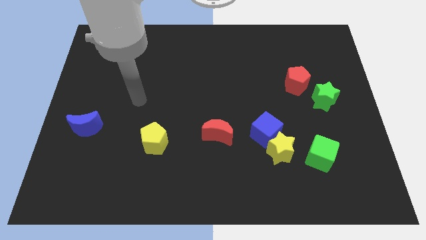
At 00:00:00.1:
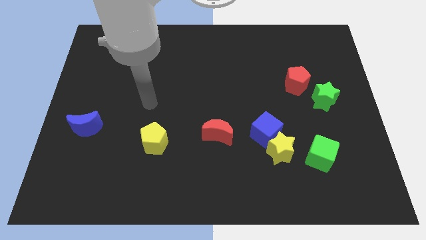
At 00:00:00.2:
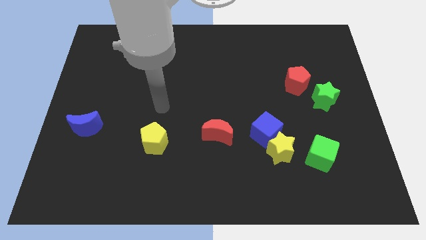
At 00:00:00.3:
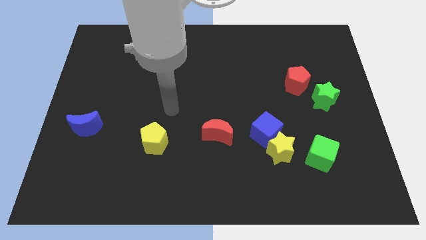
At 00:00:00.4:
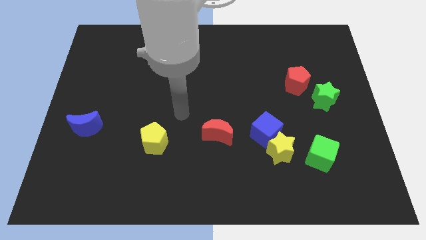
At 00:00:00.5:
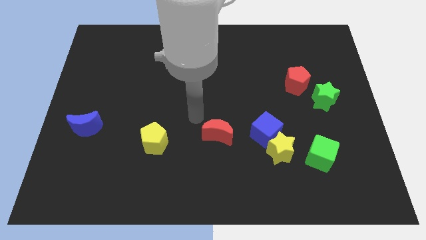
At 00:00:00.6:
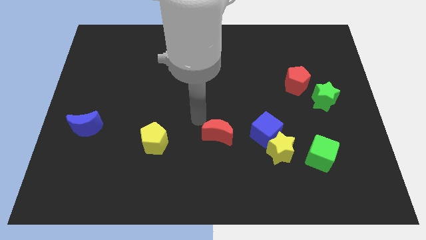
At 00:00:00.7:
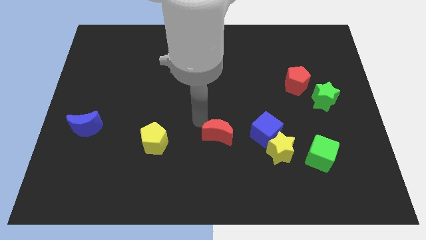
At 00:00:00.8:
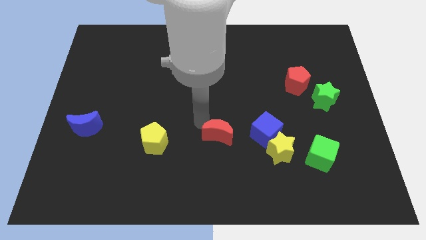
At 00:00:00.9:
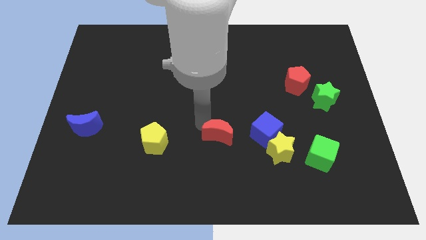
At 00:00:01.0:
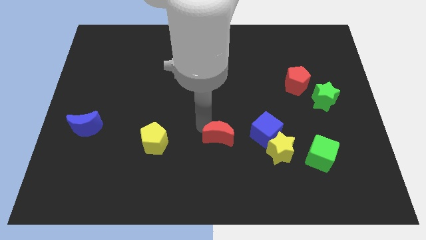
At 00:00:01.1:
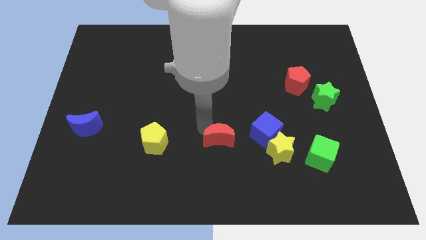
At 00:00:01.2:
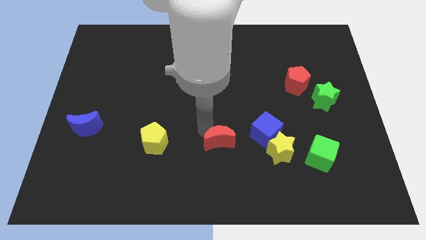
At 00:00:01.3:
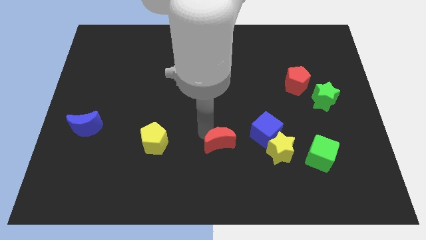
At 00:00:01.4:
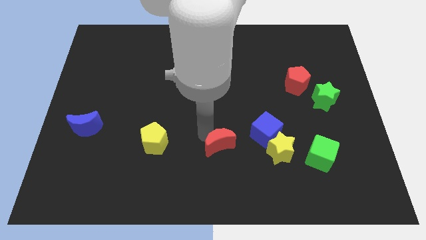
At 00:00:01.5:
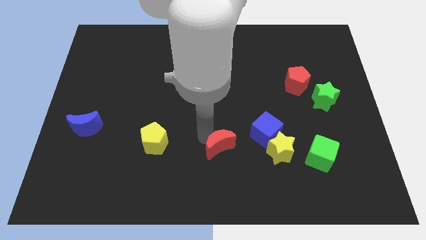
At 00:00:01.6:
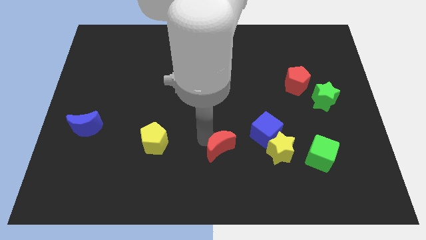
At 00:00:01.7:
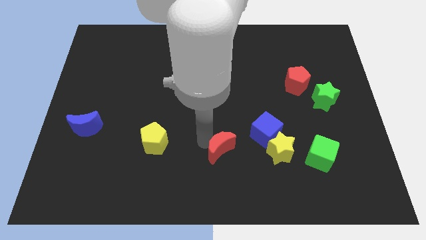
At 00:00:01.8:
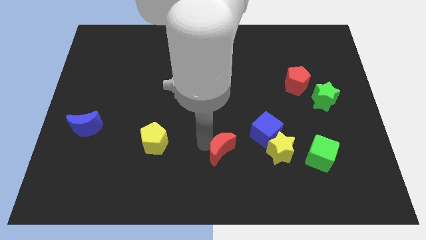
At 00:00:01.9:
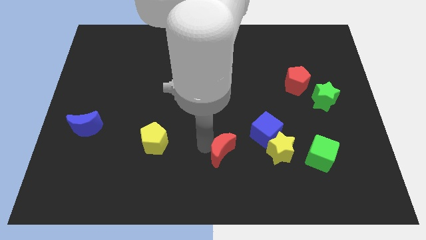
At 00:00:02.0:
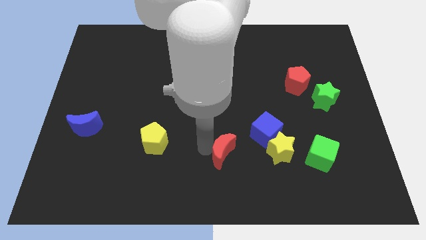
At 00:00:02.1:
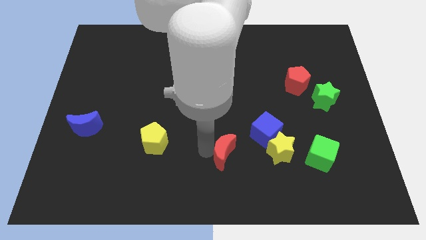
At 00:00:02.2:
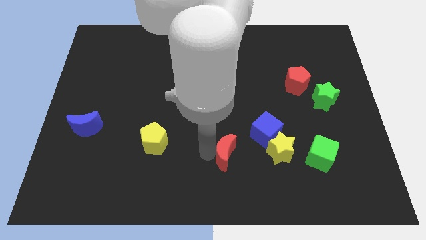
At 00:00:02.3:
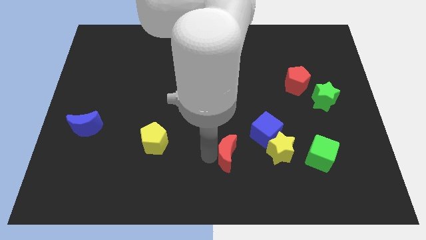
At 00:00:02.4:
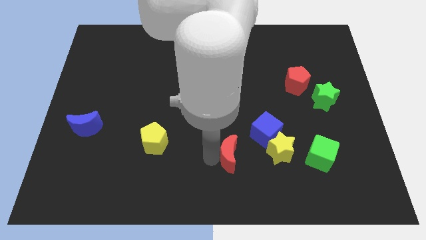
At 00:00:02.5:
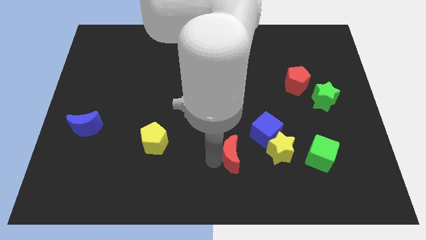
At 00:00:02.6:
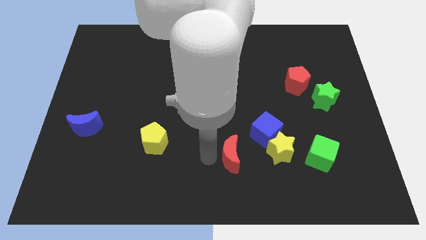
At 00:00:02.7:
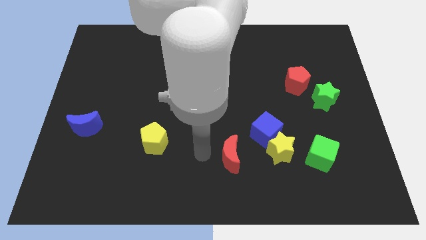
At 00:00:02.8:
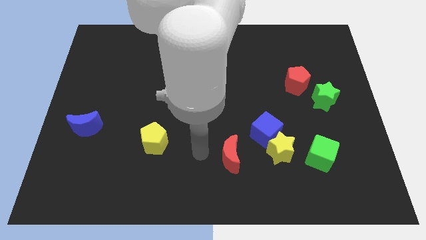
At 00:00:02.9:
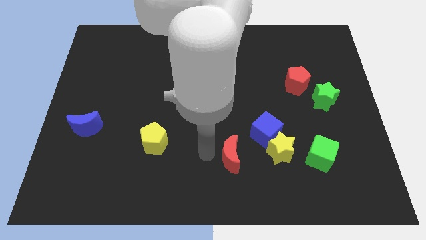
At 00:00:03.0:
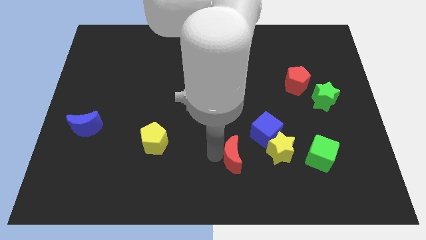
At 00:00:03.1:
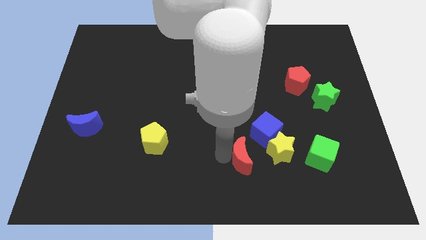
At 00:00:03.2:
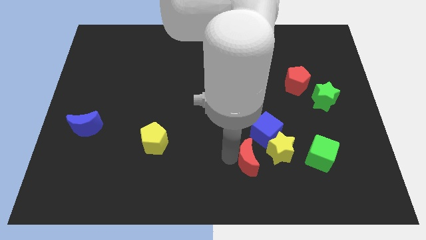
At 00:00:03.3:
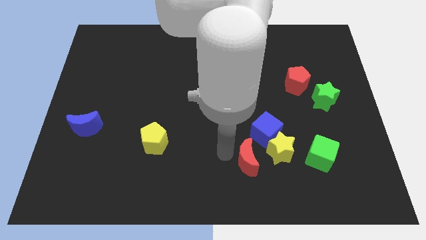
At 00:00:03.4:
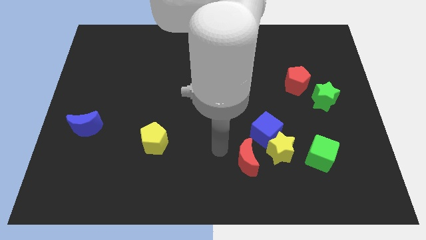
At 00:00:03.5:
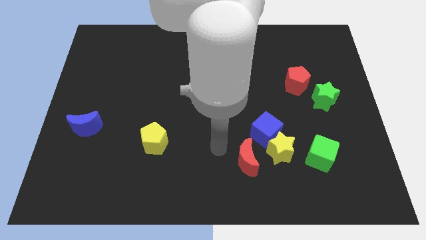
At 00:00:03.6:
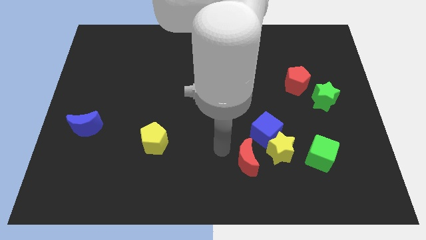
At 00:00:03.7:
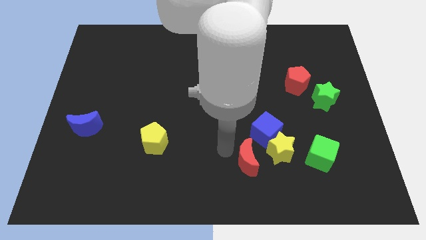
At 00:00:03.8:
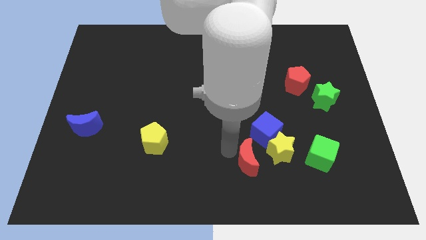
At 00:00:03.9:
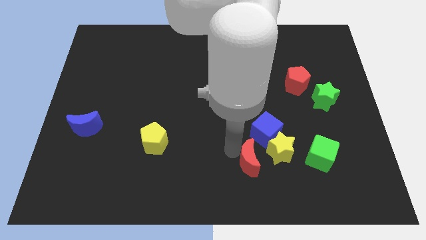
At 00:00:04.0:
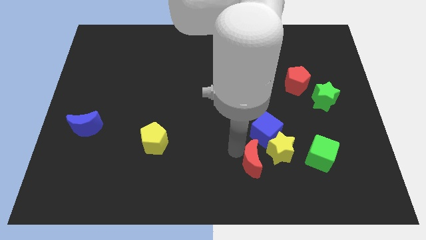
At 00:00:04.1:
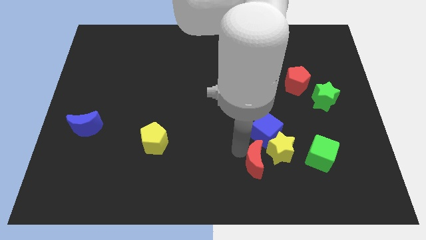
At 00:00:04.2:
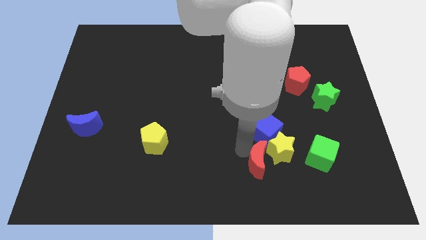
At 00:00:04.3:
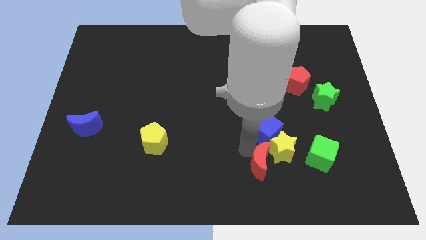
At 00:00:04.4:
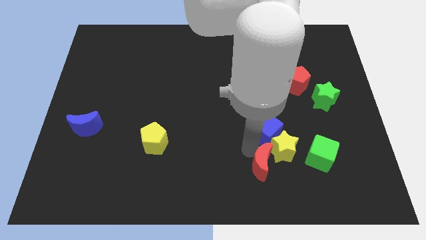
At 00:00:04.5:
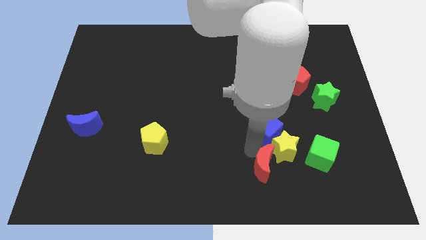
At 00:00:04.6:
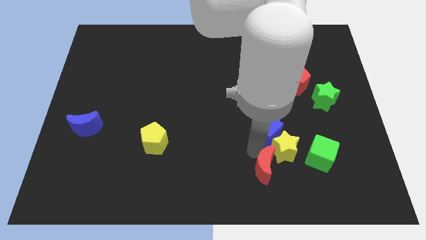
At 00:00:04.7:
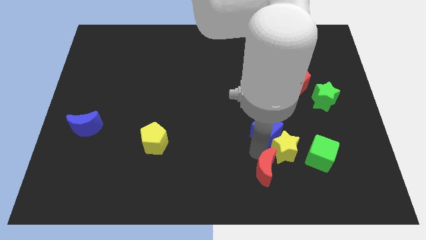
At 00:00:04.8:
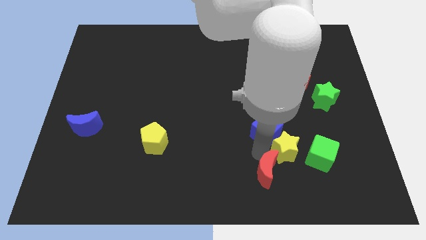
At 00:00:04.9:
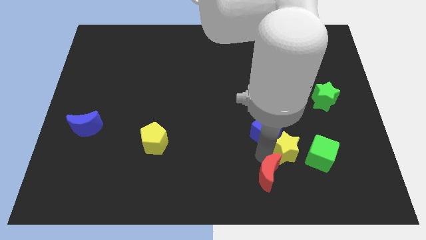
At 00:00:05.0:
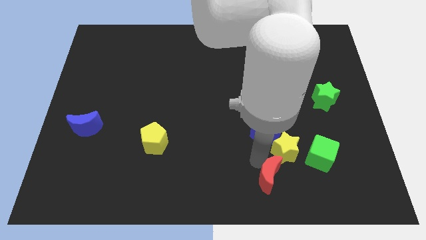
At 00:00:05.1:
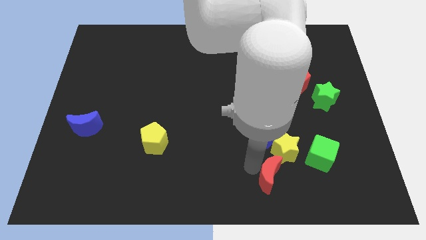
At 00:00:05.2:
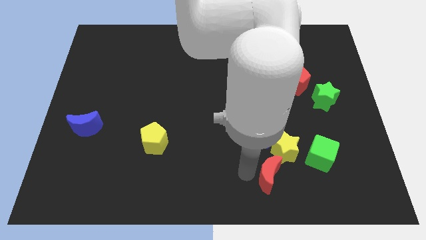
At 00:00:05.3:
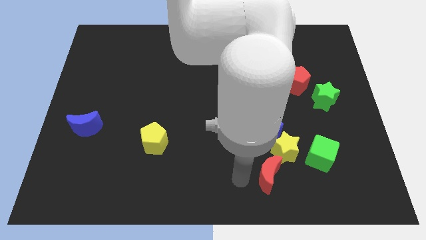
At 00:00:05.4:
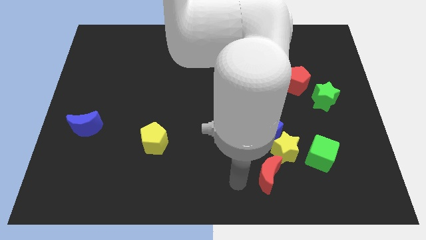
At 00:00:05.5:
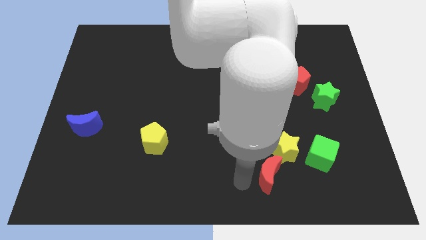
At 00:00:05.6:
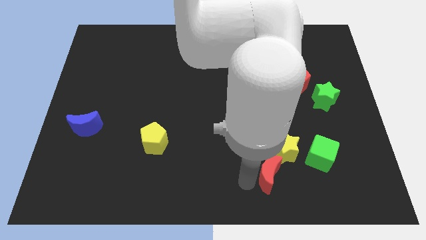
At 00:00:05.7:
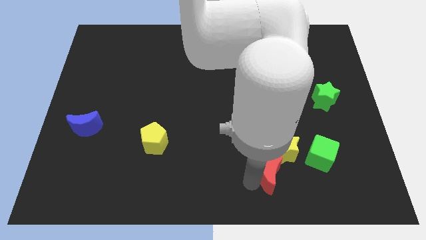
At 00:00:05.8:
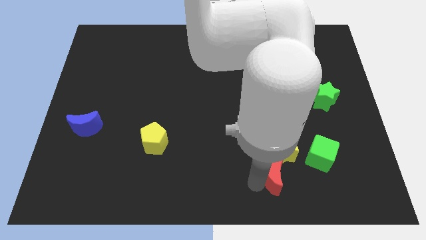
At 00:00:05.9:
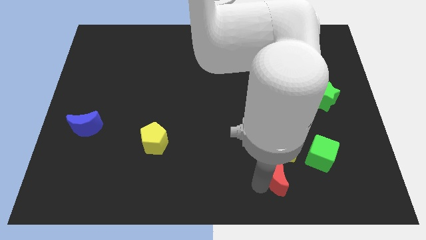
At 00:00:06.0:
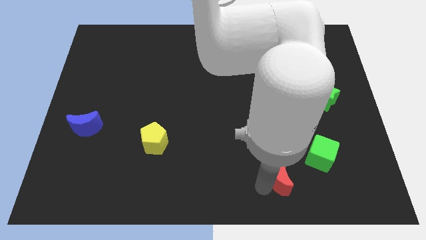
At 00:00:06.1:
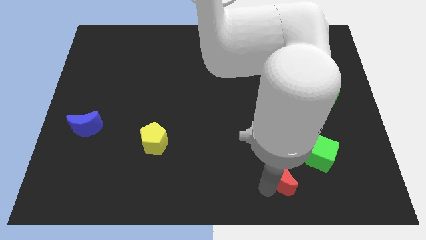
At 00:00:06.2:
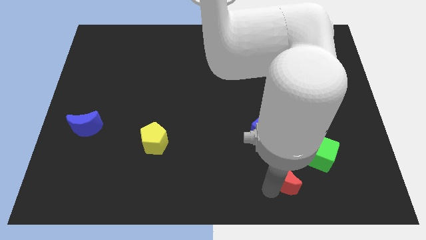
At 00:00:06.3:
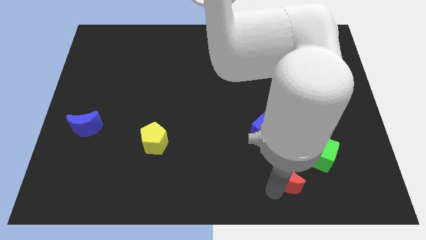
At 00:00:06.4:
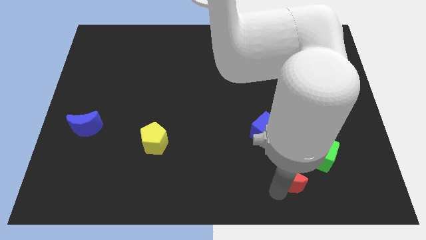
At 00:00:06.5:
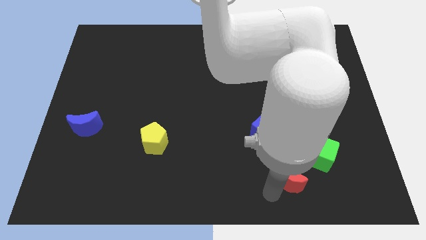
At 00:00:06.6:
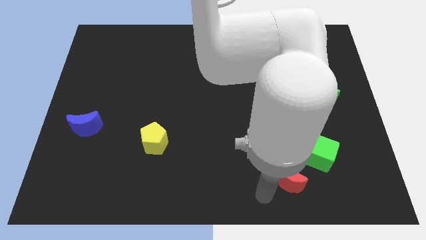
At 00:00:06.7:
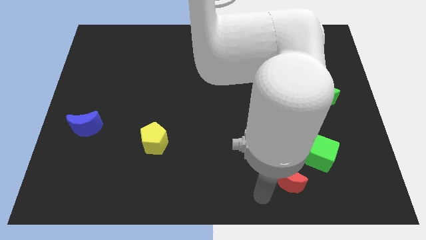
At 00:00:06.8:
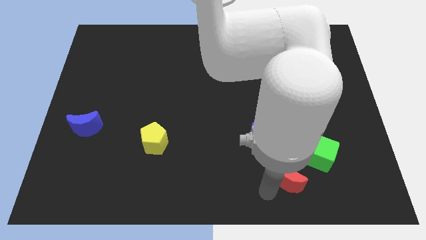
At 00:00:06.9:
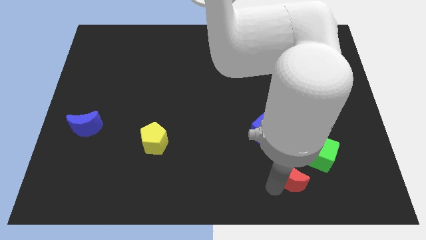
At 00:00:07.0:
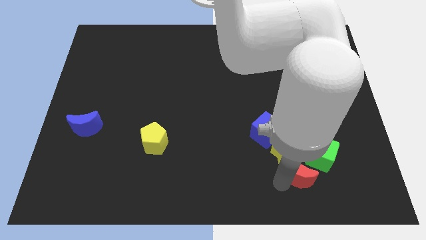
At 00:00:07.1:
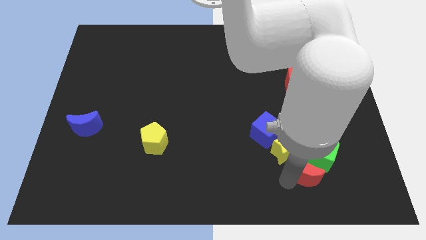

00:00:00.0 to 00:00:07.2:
put the red moon next to the green cube
